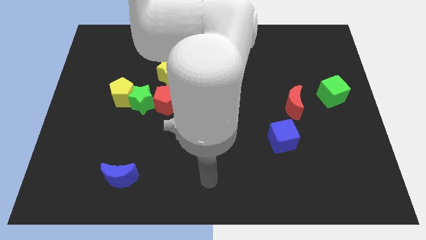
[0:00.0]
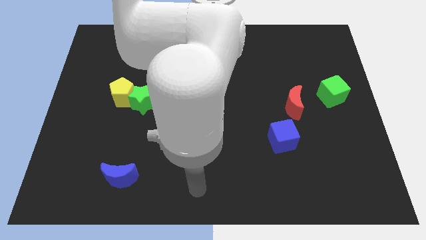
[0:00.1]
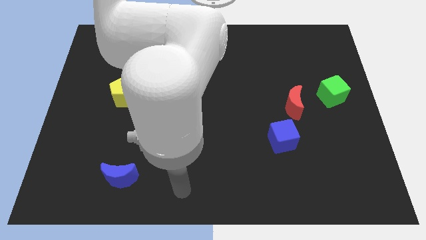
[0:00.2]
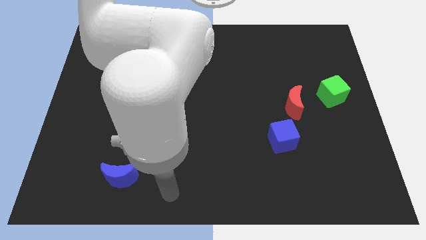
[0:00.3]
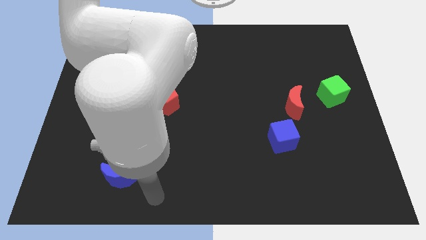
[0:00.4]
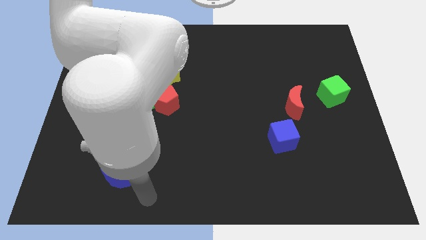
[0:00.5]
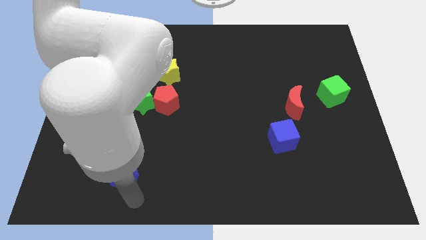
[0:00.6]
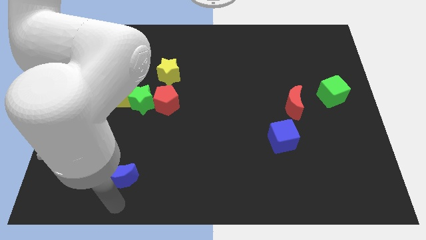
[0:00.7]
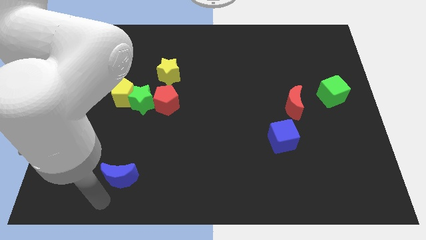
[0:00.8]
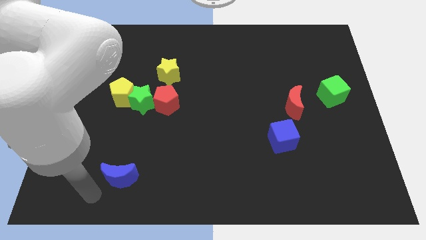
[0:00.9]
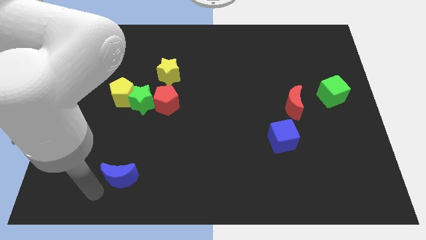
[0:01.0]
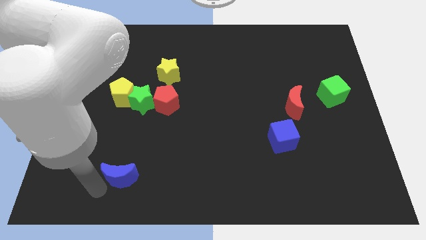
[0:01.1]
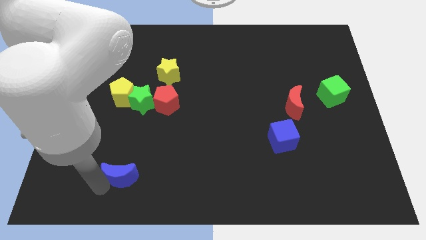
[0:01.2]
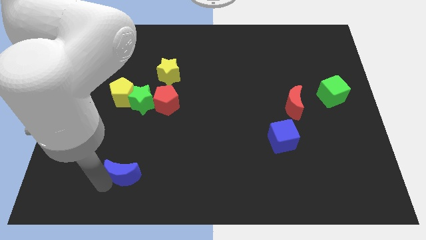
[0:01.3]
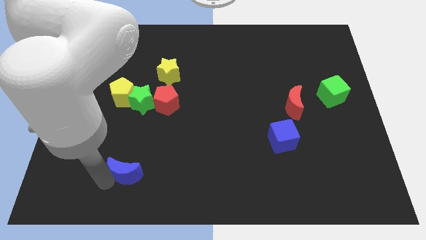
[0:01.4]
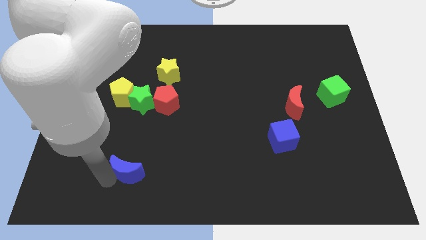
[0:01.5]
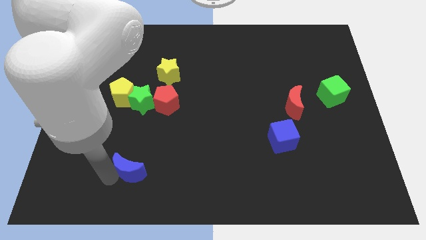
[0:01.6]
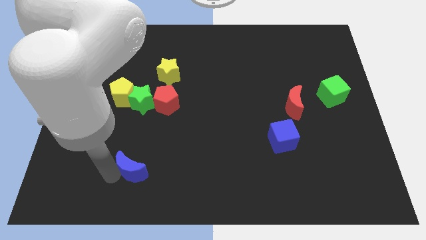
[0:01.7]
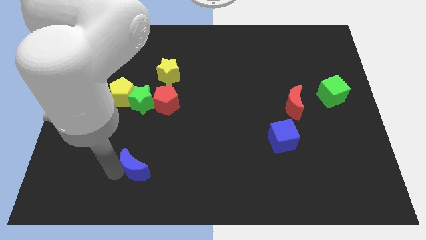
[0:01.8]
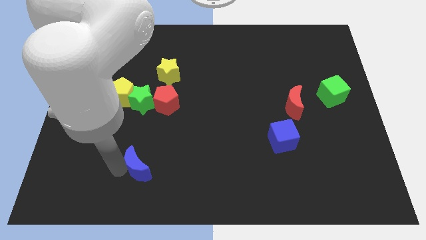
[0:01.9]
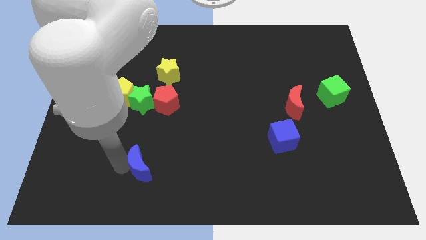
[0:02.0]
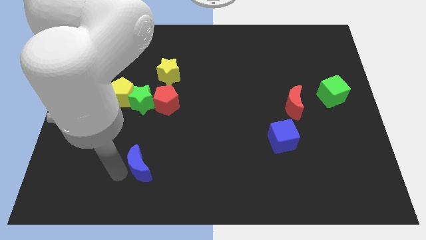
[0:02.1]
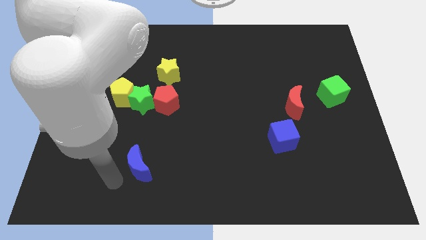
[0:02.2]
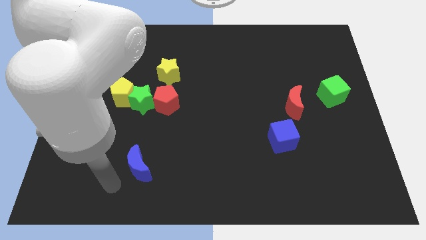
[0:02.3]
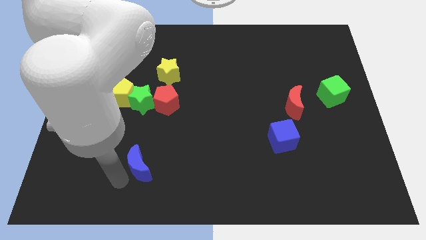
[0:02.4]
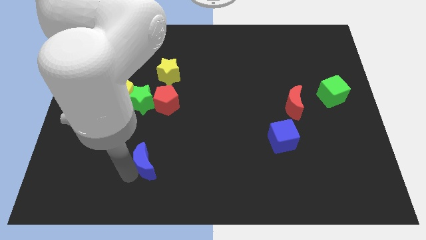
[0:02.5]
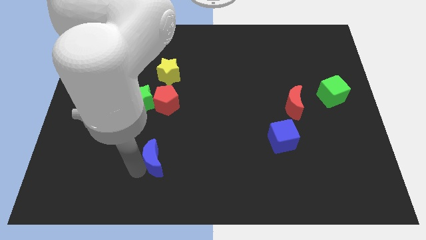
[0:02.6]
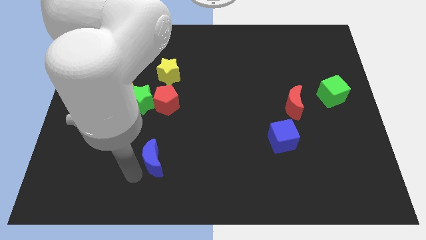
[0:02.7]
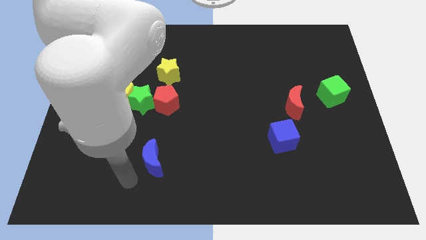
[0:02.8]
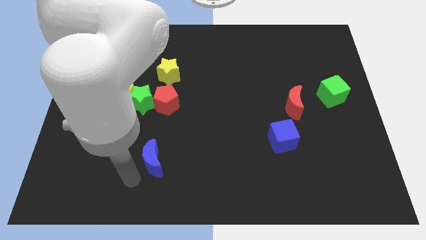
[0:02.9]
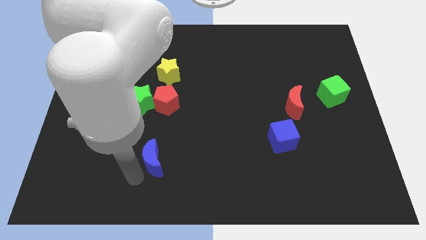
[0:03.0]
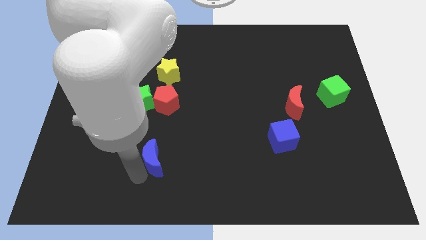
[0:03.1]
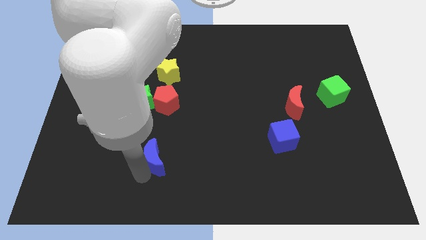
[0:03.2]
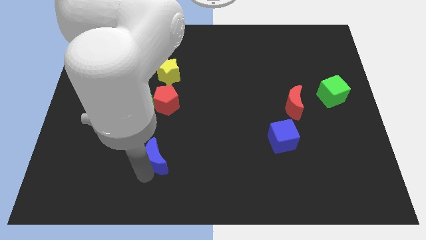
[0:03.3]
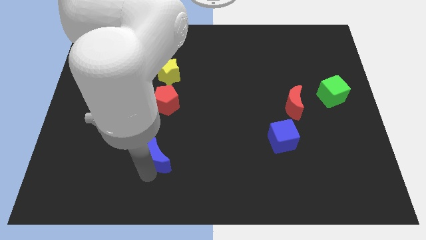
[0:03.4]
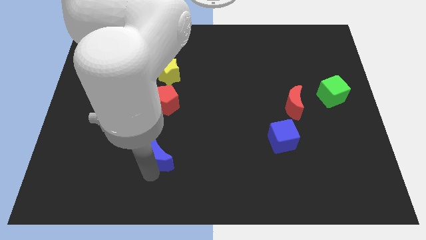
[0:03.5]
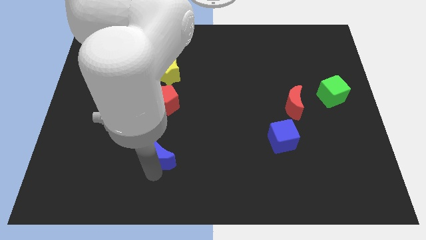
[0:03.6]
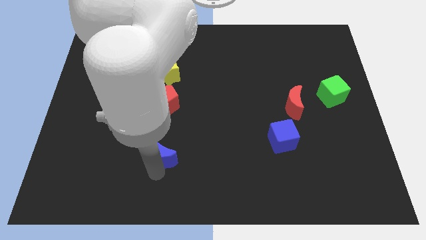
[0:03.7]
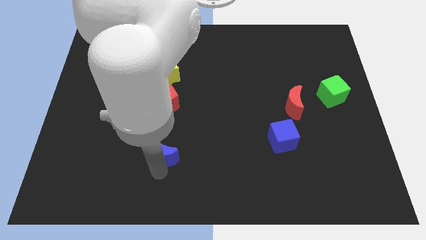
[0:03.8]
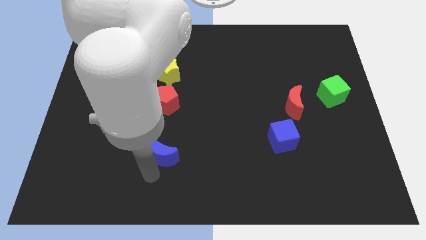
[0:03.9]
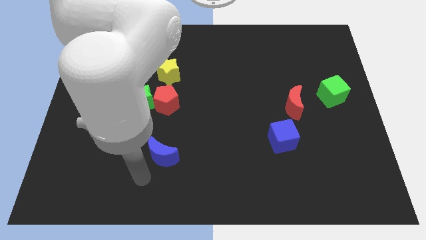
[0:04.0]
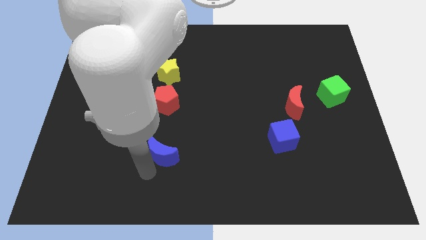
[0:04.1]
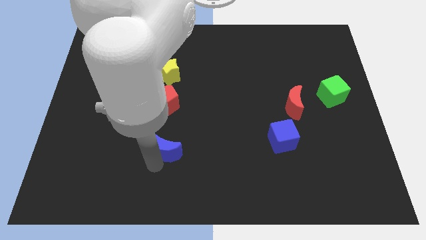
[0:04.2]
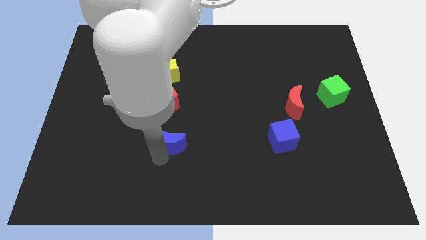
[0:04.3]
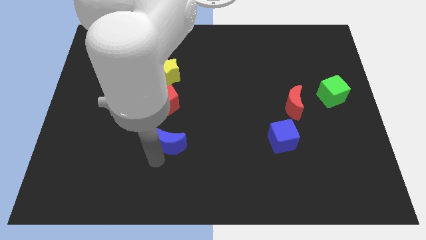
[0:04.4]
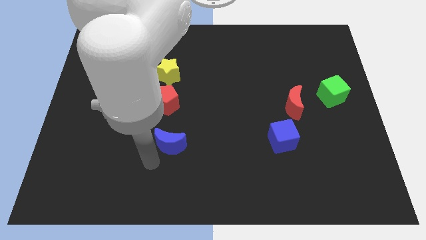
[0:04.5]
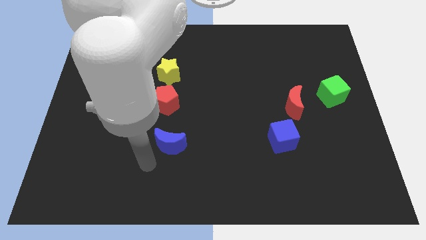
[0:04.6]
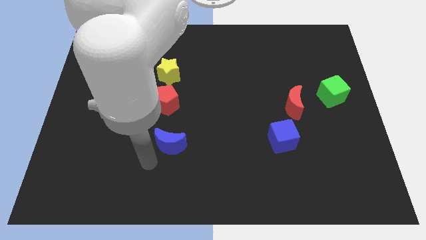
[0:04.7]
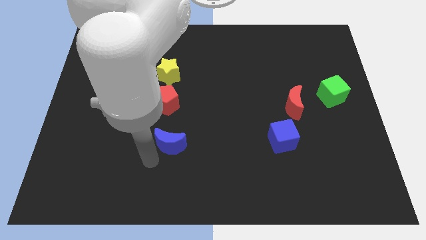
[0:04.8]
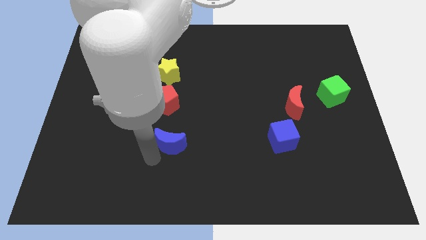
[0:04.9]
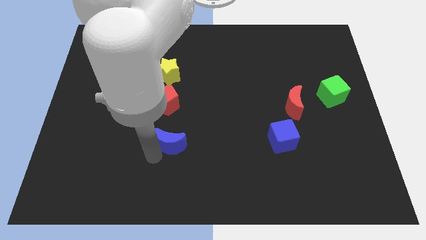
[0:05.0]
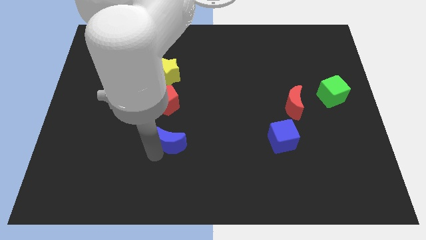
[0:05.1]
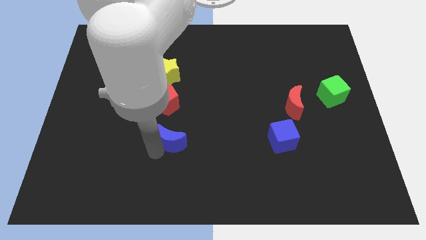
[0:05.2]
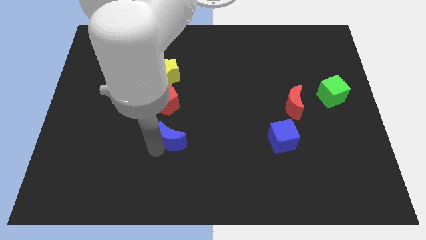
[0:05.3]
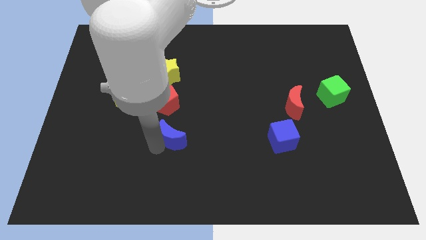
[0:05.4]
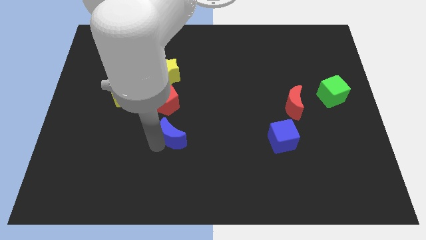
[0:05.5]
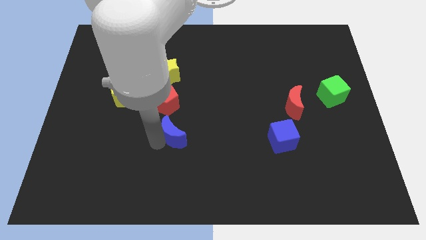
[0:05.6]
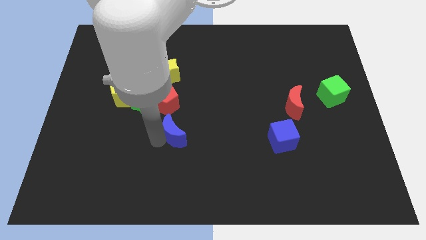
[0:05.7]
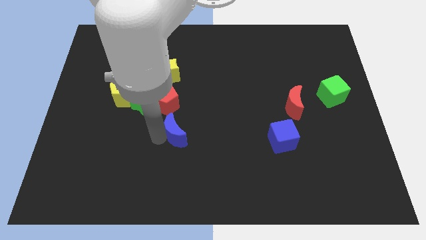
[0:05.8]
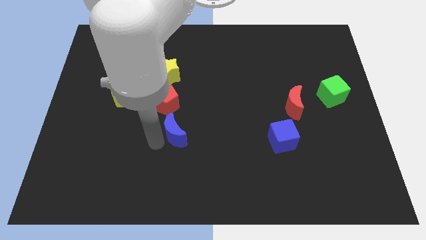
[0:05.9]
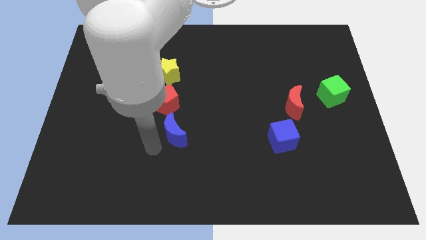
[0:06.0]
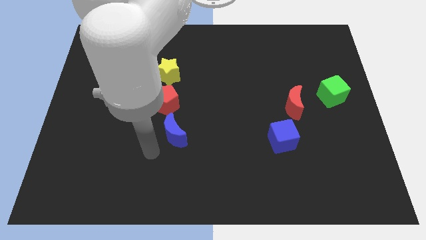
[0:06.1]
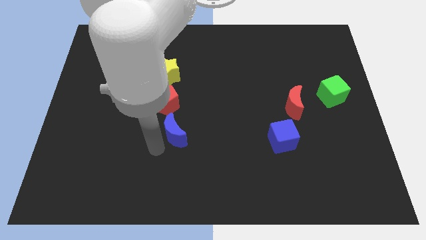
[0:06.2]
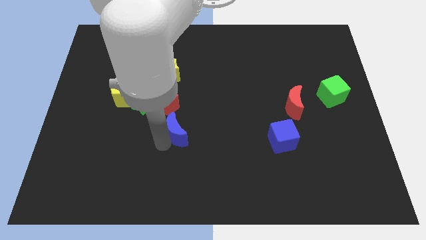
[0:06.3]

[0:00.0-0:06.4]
slide the blue moon to the center
